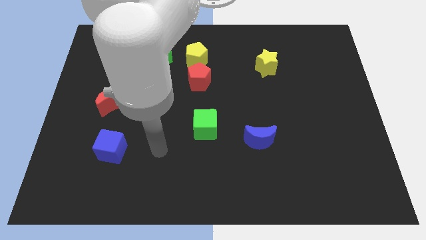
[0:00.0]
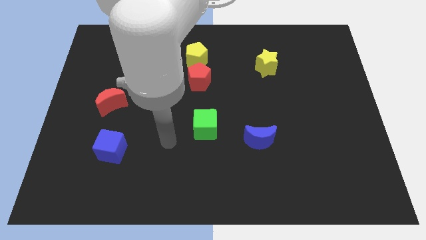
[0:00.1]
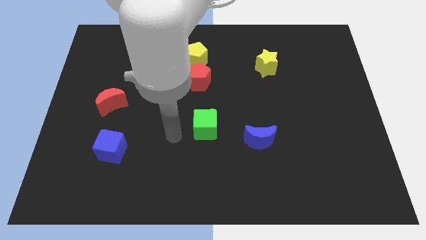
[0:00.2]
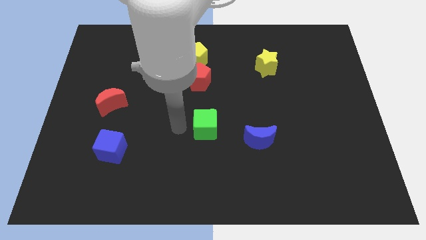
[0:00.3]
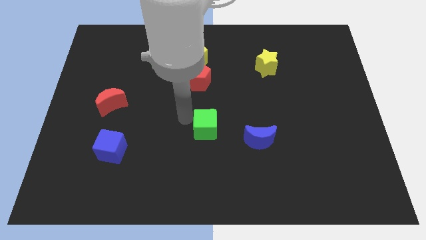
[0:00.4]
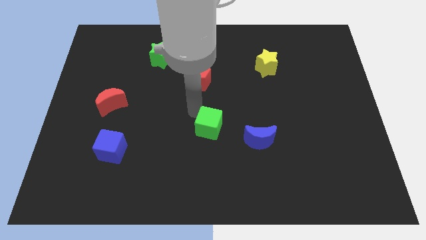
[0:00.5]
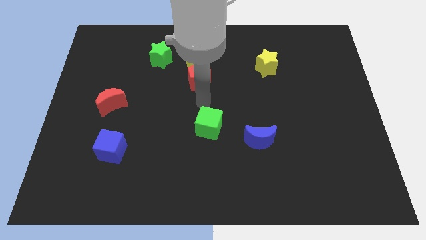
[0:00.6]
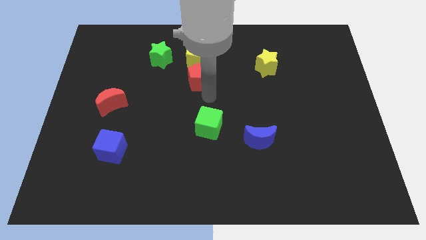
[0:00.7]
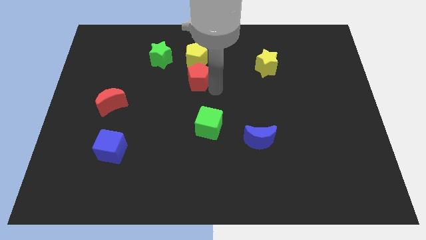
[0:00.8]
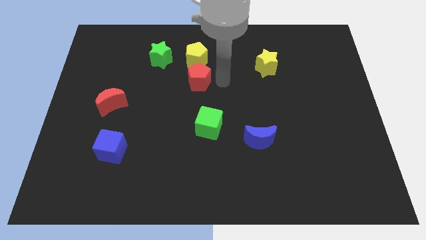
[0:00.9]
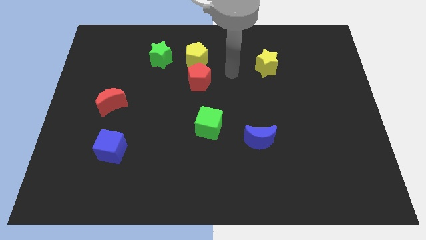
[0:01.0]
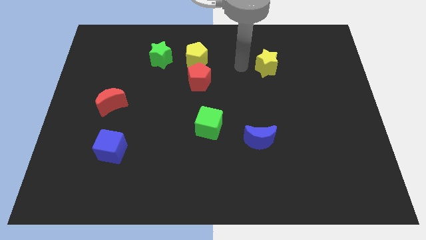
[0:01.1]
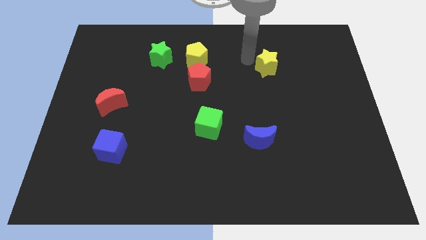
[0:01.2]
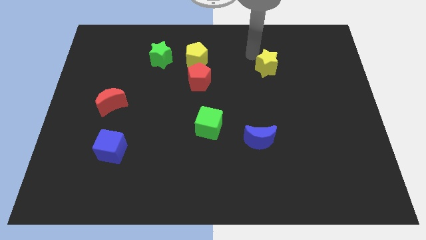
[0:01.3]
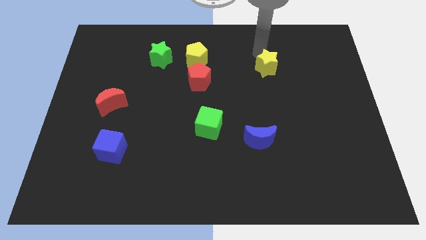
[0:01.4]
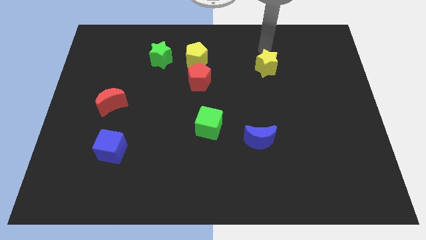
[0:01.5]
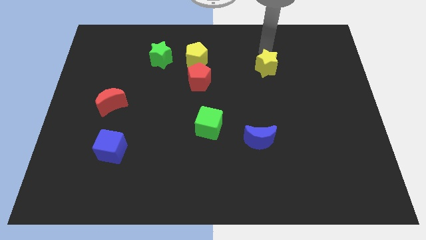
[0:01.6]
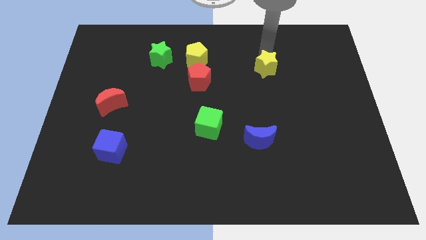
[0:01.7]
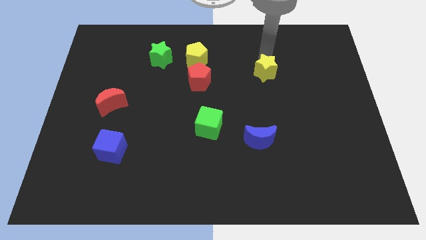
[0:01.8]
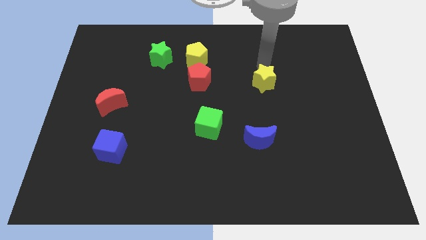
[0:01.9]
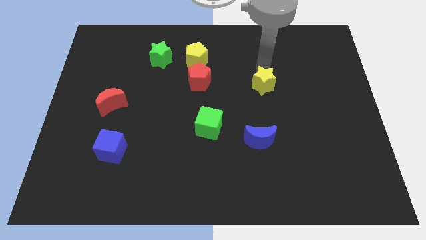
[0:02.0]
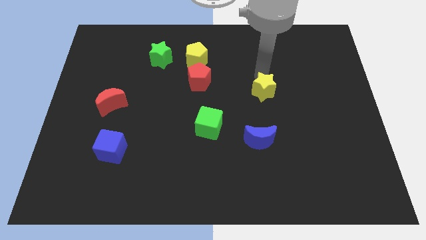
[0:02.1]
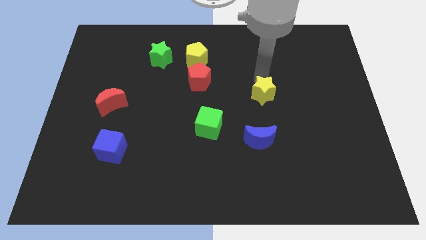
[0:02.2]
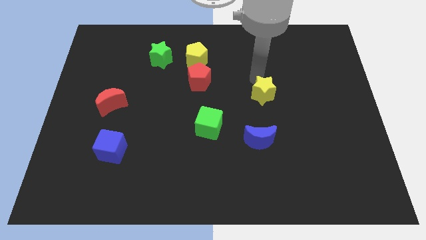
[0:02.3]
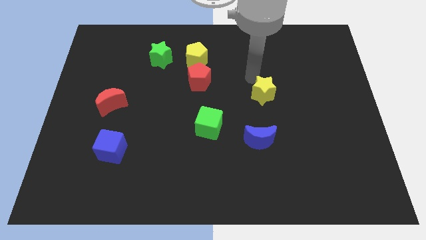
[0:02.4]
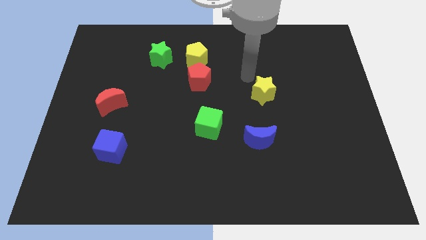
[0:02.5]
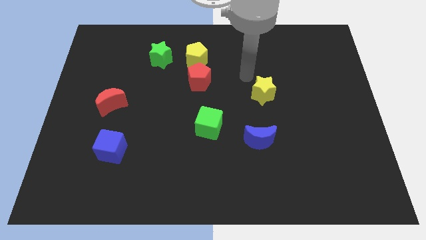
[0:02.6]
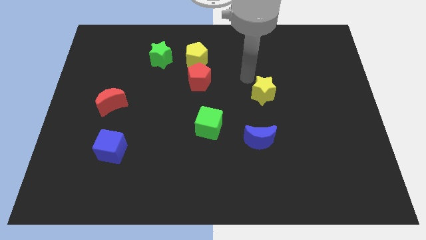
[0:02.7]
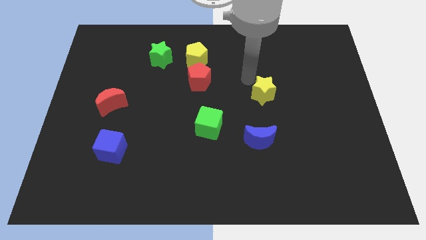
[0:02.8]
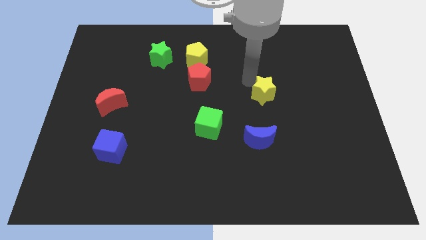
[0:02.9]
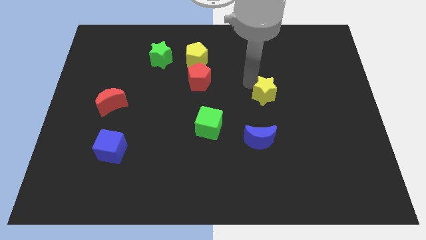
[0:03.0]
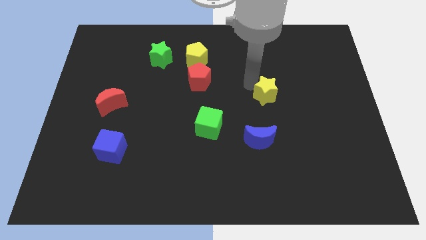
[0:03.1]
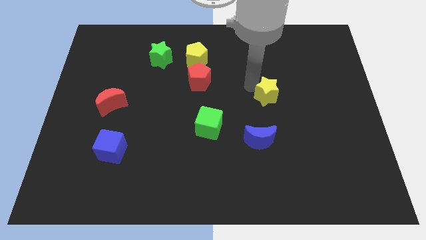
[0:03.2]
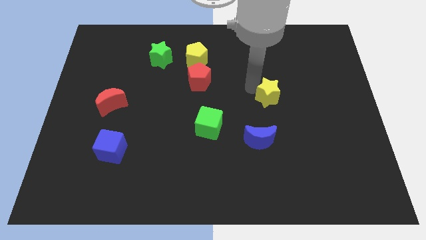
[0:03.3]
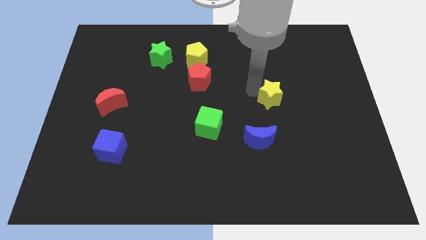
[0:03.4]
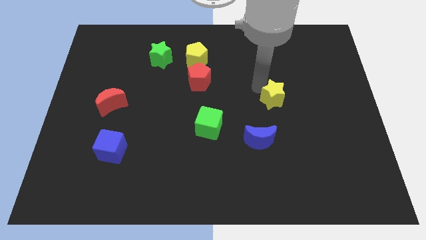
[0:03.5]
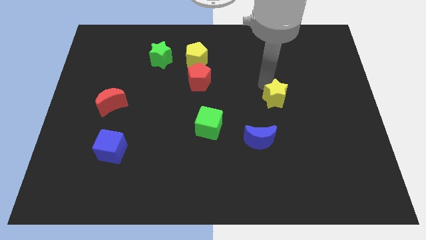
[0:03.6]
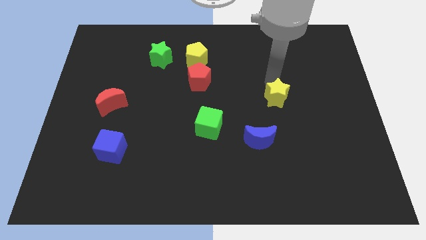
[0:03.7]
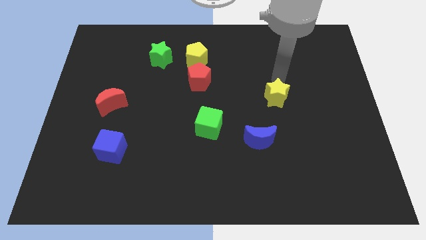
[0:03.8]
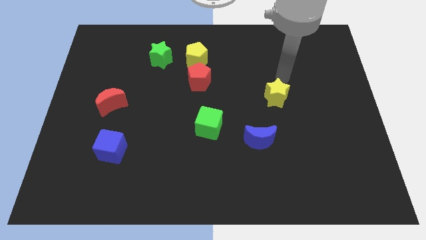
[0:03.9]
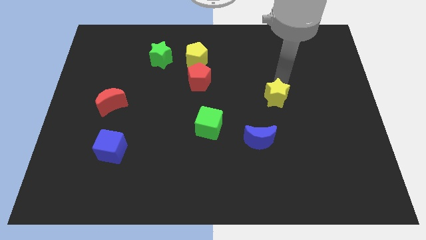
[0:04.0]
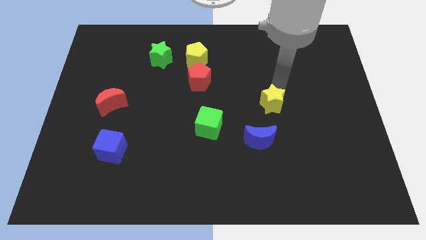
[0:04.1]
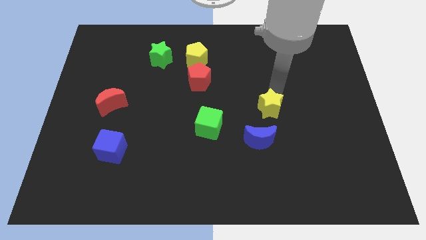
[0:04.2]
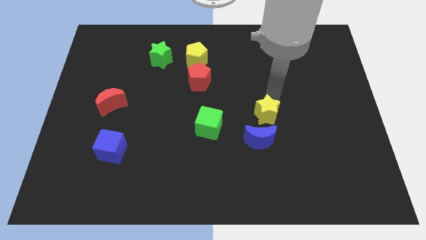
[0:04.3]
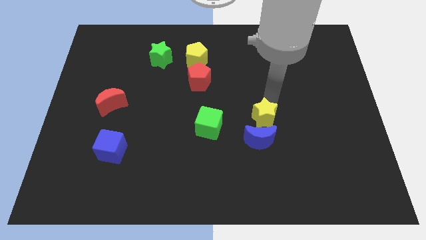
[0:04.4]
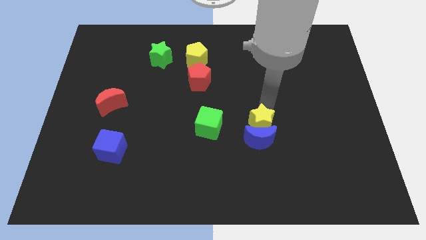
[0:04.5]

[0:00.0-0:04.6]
put the yellow star next to the blue moon

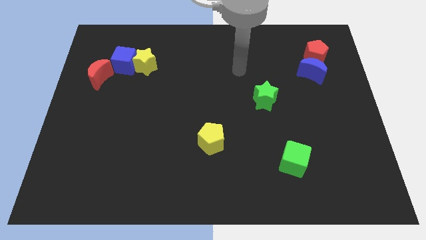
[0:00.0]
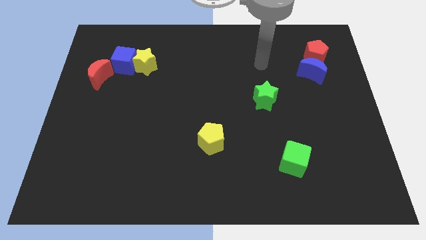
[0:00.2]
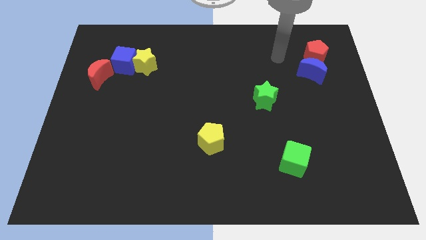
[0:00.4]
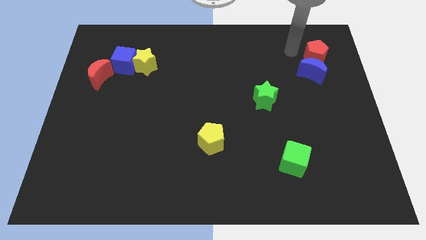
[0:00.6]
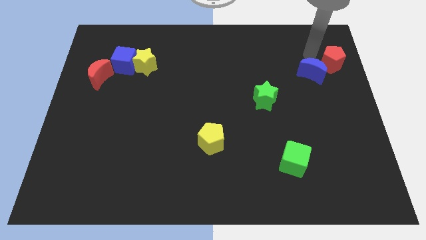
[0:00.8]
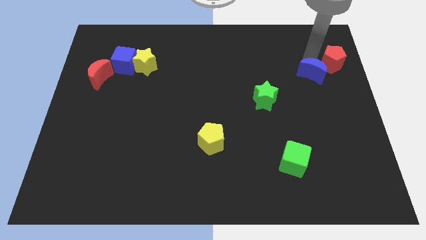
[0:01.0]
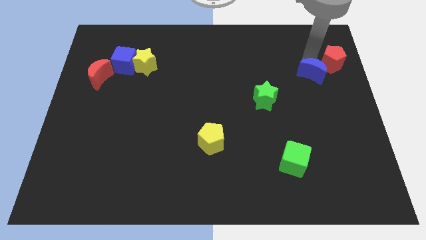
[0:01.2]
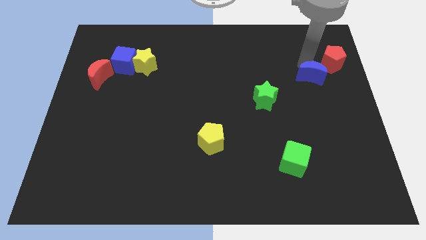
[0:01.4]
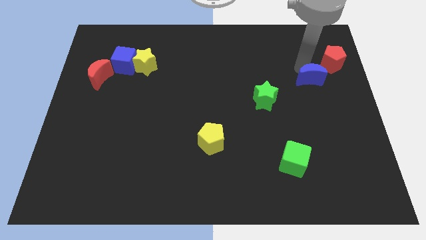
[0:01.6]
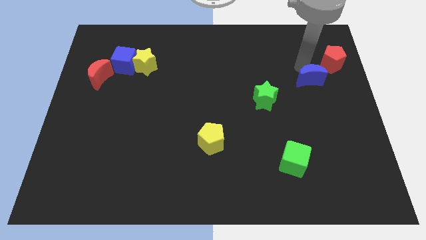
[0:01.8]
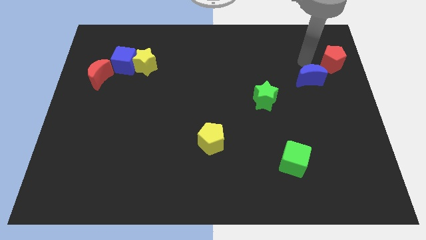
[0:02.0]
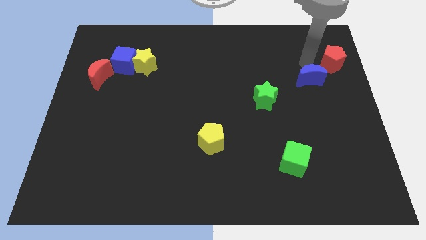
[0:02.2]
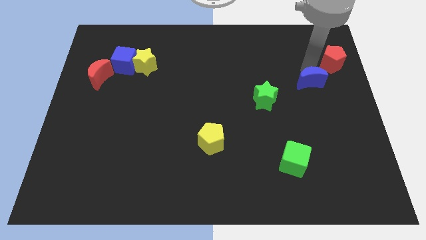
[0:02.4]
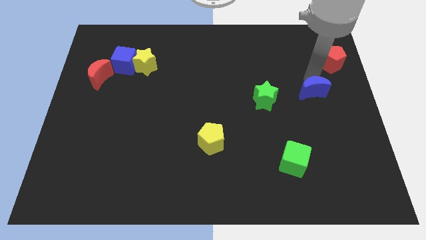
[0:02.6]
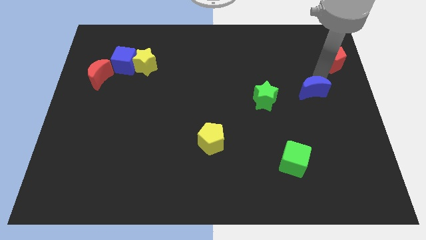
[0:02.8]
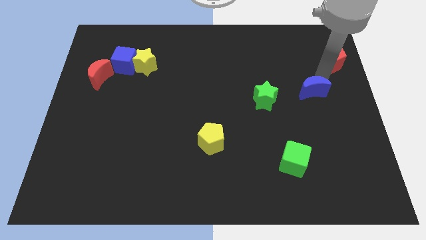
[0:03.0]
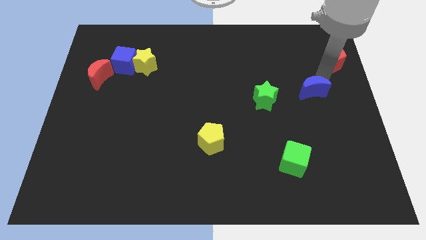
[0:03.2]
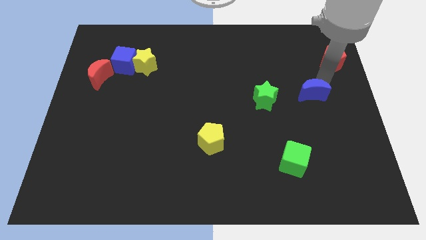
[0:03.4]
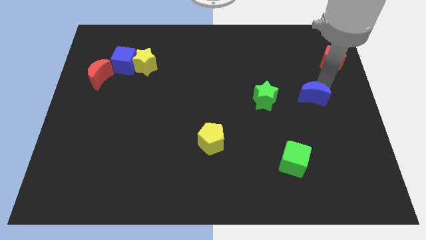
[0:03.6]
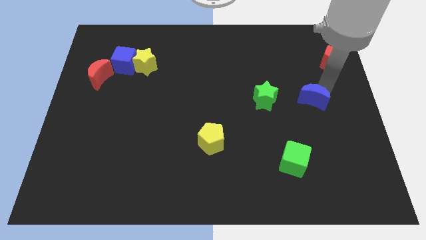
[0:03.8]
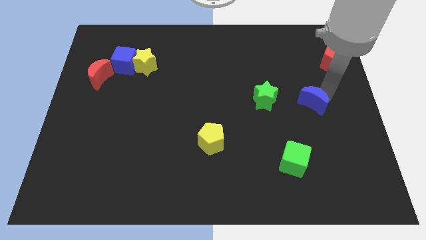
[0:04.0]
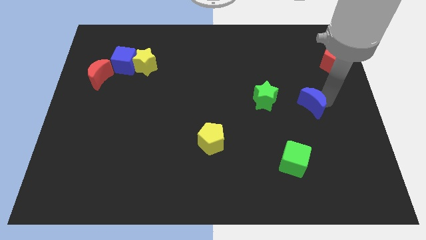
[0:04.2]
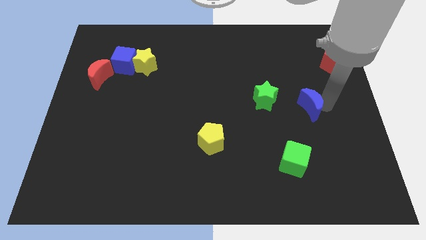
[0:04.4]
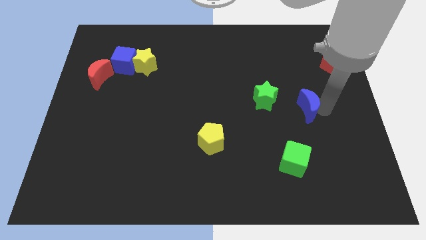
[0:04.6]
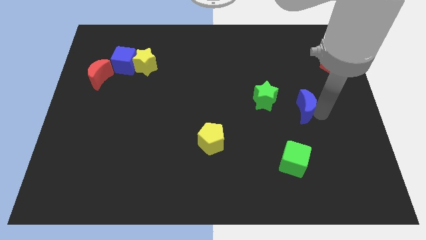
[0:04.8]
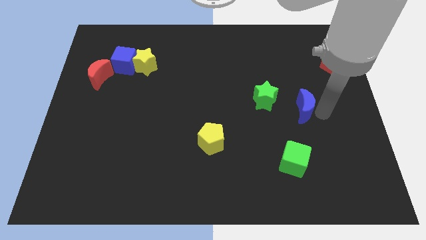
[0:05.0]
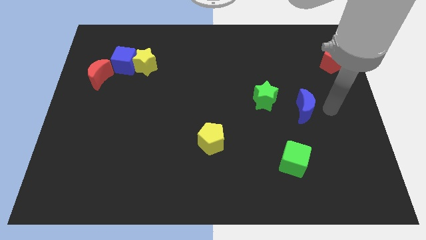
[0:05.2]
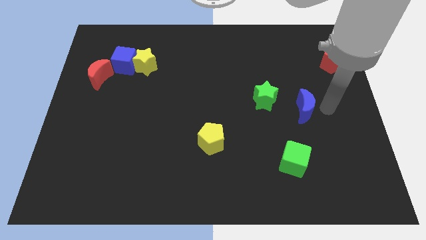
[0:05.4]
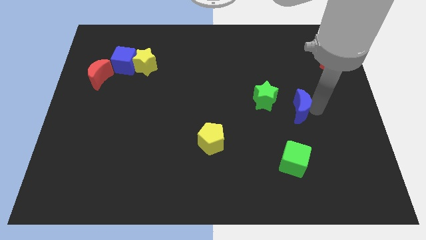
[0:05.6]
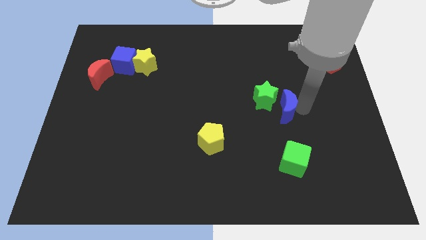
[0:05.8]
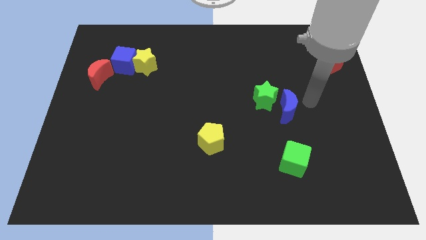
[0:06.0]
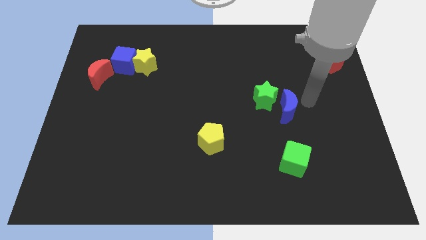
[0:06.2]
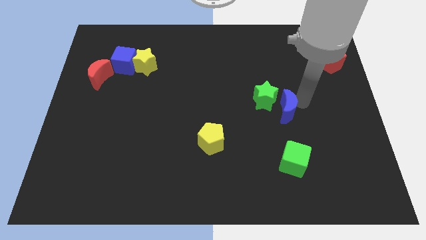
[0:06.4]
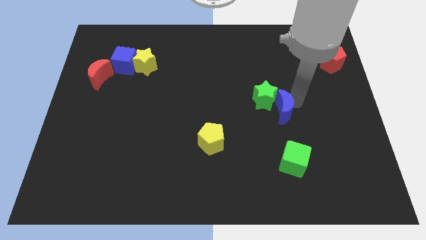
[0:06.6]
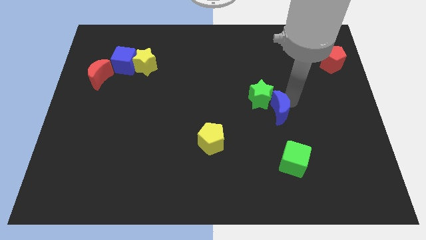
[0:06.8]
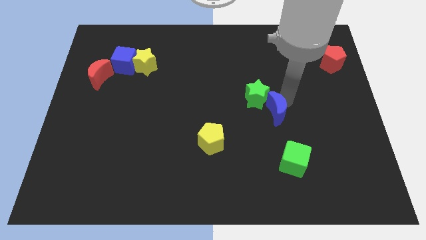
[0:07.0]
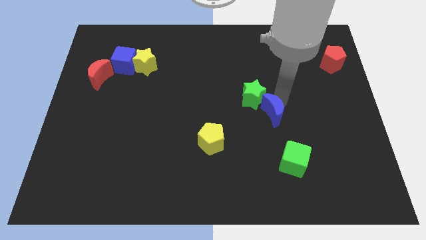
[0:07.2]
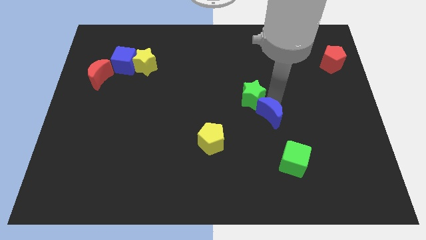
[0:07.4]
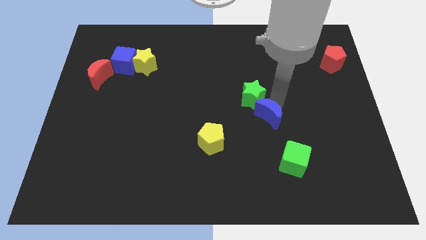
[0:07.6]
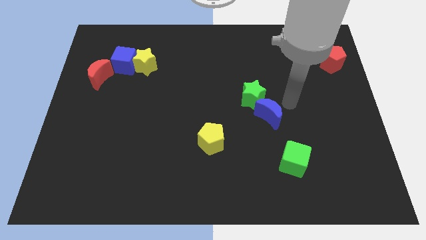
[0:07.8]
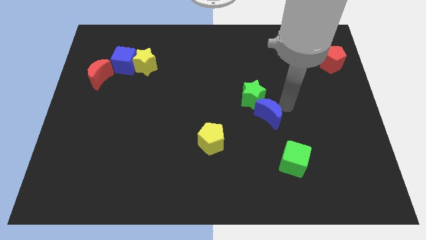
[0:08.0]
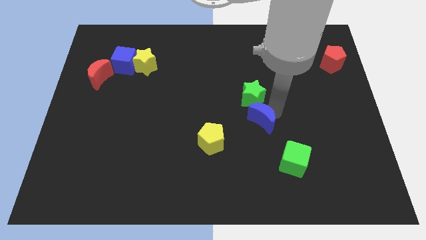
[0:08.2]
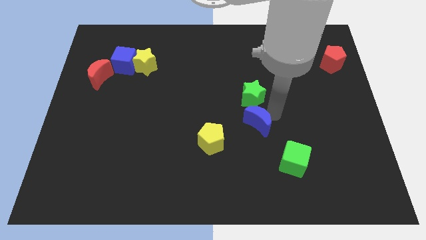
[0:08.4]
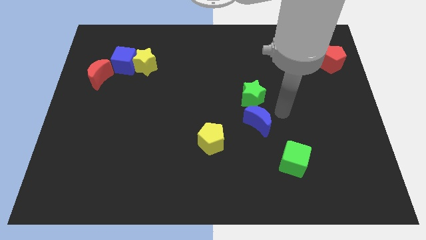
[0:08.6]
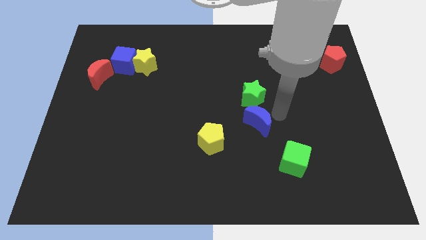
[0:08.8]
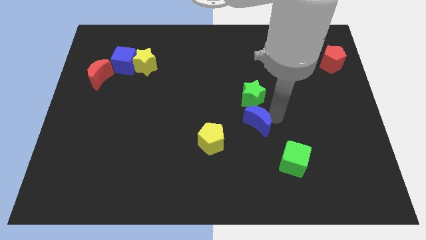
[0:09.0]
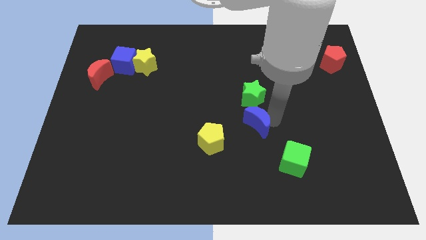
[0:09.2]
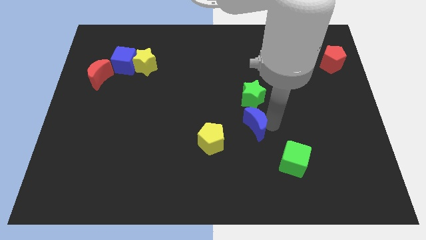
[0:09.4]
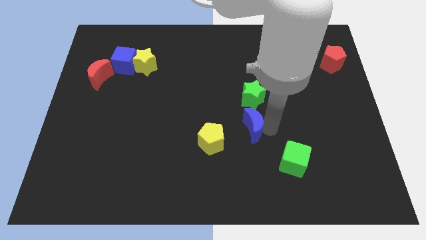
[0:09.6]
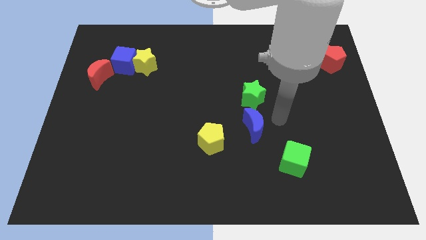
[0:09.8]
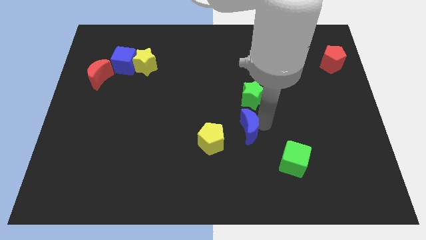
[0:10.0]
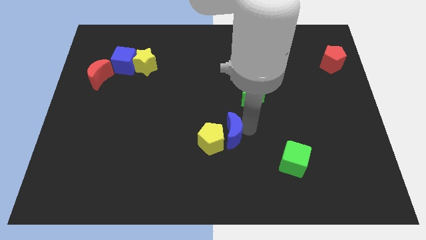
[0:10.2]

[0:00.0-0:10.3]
push the blue moon towards the yellow pentagon
